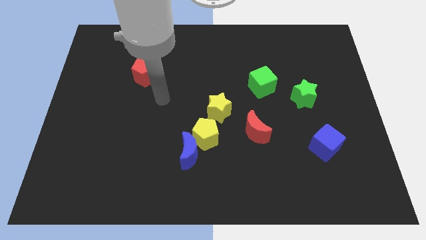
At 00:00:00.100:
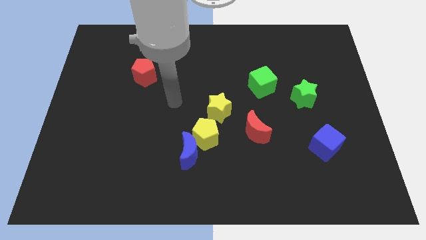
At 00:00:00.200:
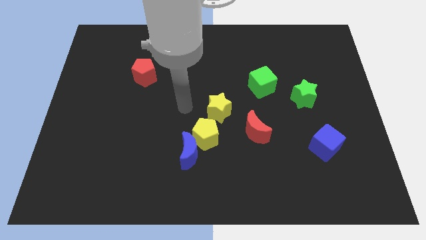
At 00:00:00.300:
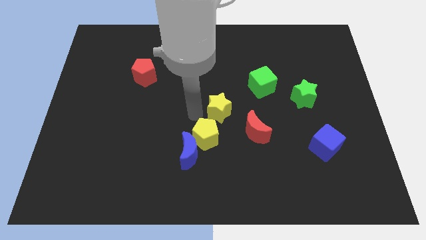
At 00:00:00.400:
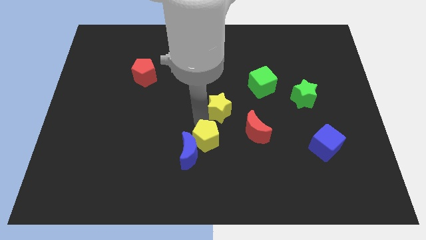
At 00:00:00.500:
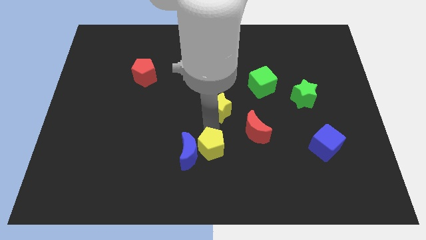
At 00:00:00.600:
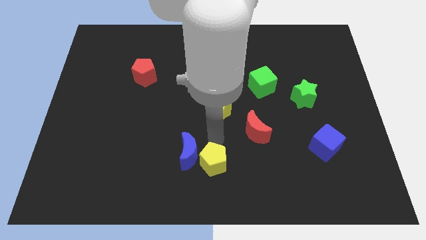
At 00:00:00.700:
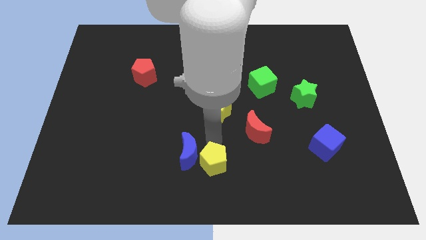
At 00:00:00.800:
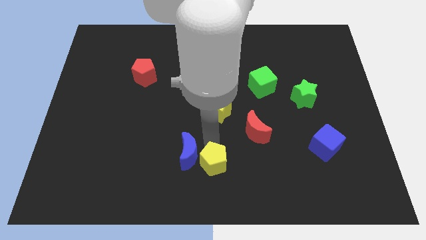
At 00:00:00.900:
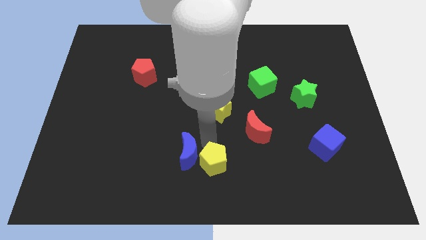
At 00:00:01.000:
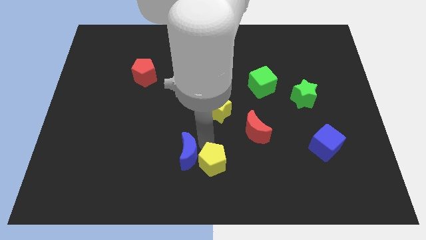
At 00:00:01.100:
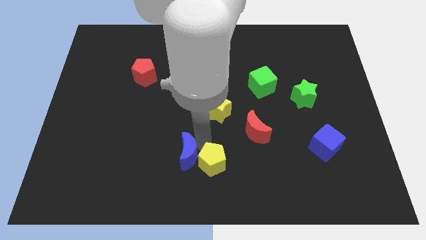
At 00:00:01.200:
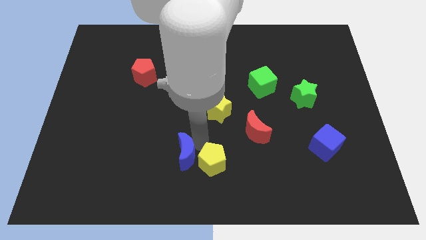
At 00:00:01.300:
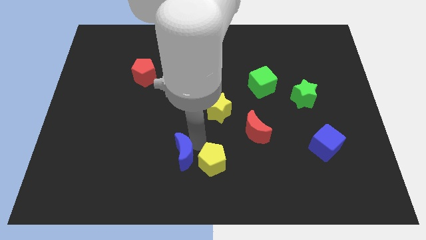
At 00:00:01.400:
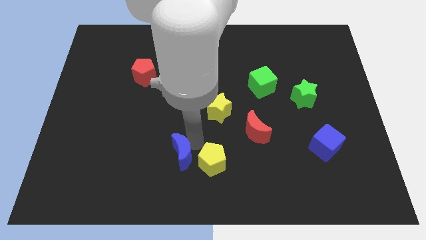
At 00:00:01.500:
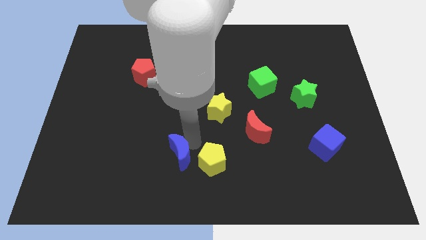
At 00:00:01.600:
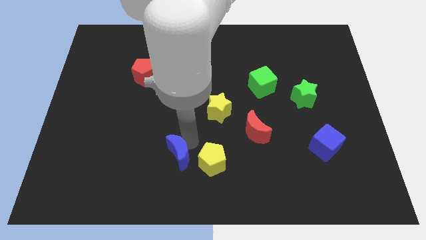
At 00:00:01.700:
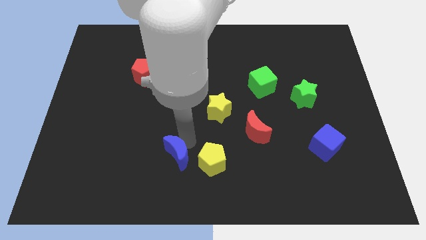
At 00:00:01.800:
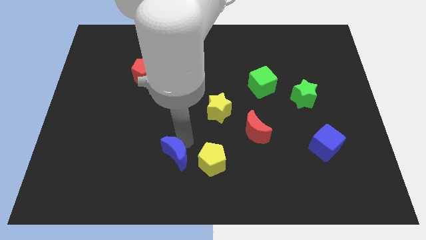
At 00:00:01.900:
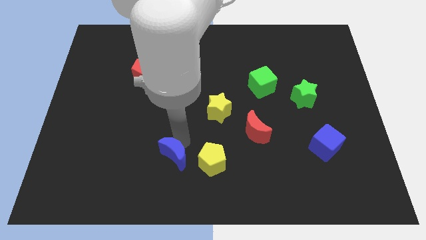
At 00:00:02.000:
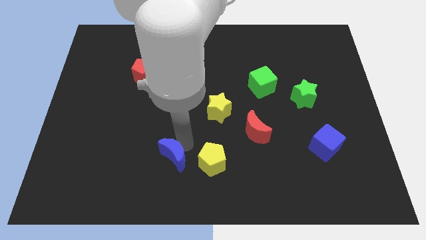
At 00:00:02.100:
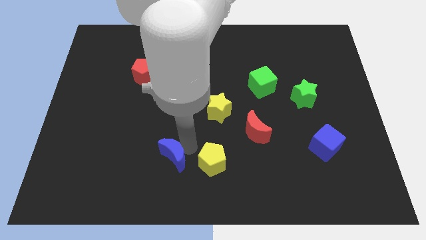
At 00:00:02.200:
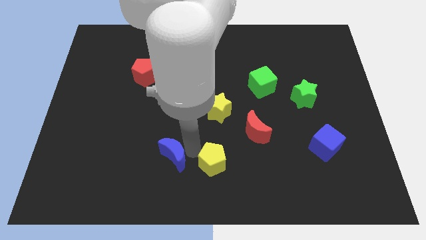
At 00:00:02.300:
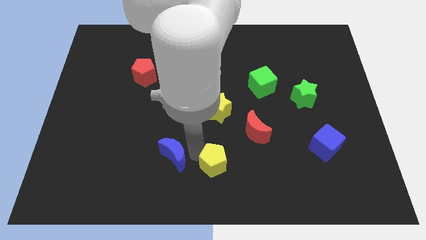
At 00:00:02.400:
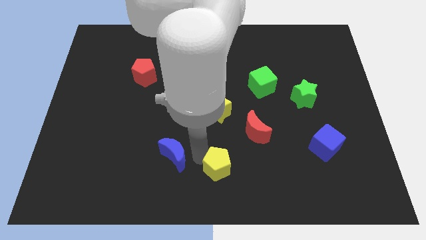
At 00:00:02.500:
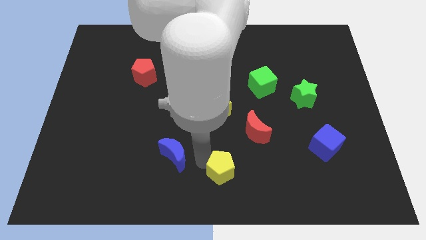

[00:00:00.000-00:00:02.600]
pull the blue moon apart from the yellow pentagon

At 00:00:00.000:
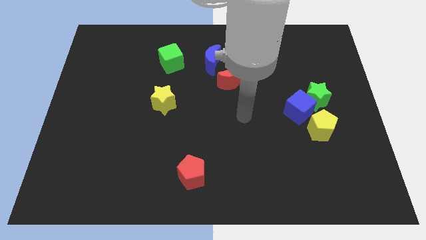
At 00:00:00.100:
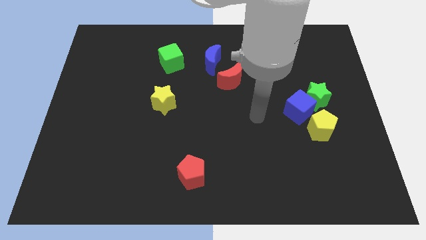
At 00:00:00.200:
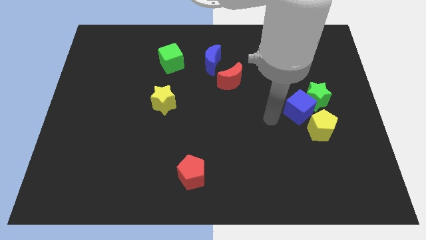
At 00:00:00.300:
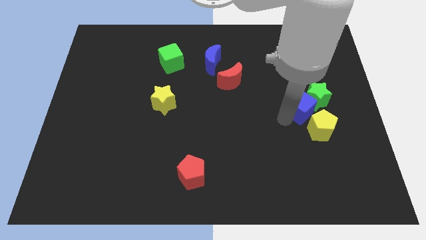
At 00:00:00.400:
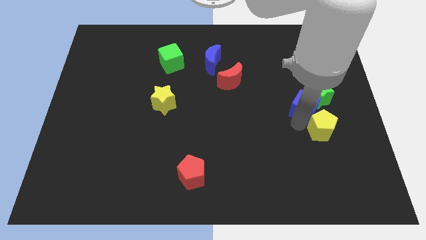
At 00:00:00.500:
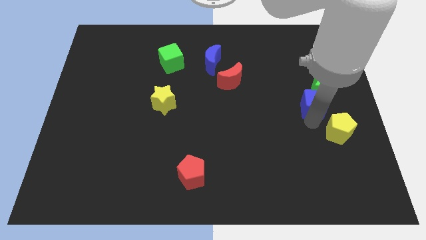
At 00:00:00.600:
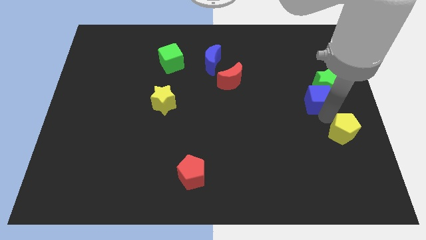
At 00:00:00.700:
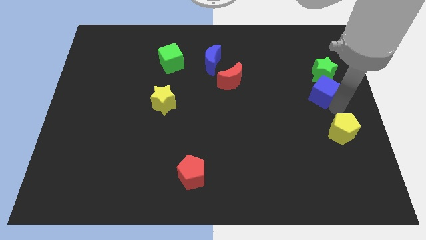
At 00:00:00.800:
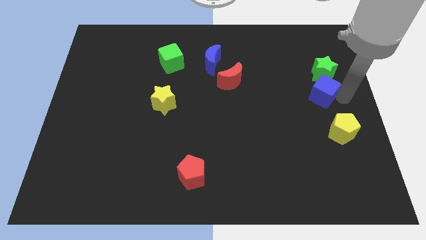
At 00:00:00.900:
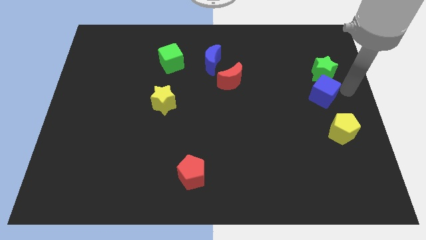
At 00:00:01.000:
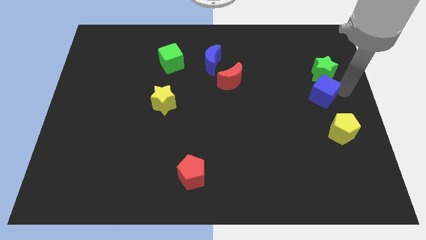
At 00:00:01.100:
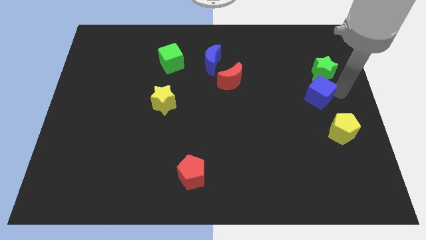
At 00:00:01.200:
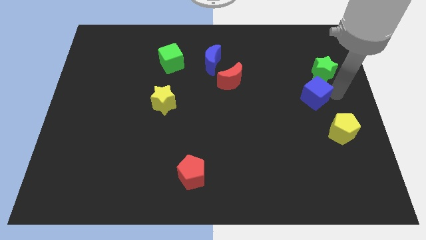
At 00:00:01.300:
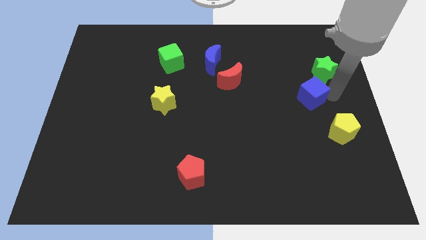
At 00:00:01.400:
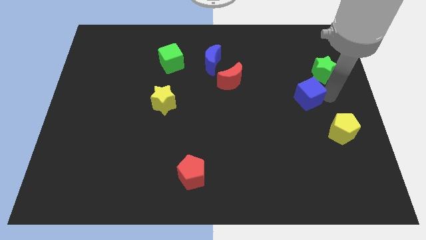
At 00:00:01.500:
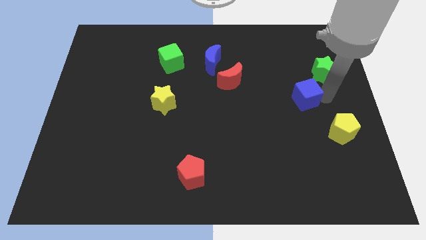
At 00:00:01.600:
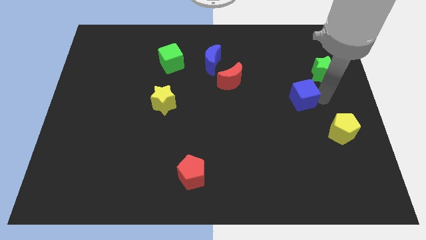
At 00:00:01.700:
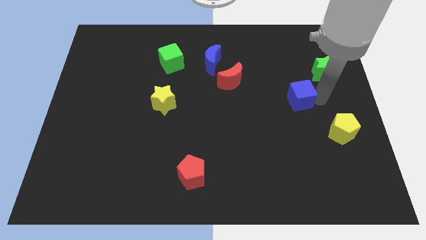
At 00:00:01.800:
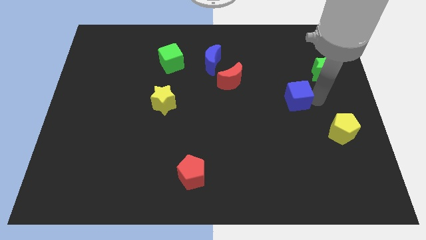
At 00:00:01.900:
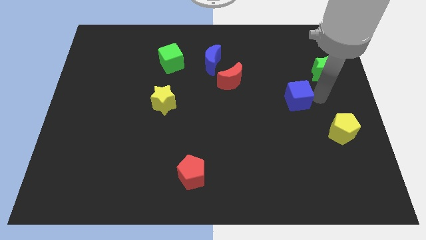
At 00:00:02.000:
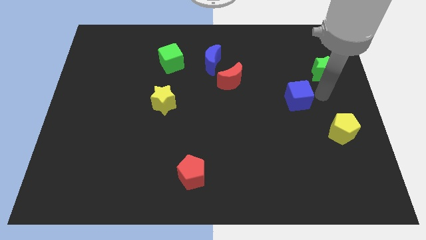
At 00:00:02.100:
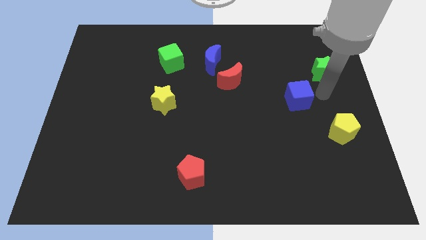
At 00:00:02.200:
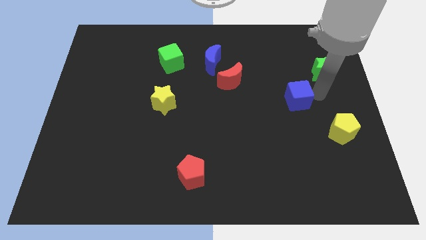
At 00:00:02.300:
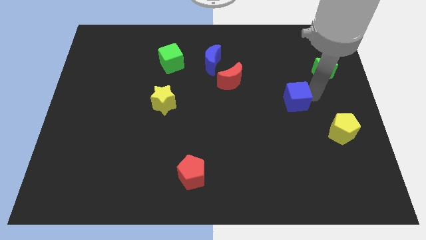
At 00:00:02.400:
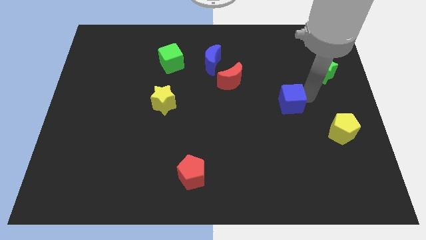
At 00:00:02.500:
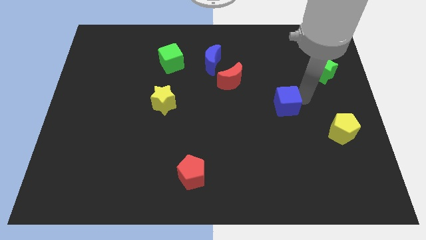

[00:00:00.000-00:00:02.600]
pull the blue cube apart from the green star and yellow pentagon

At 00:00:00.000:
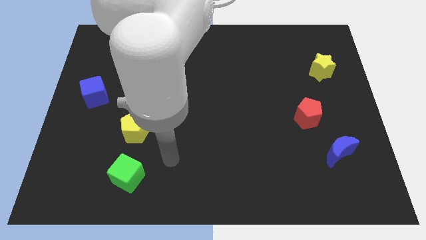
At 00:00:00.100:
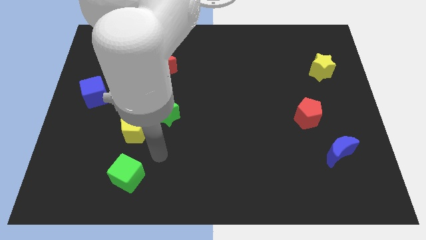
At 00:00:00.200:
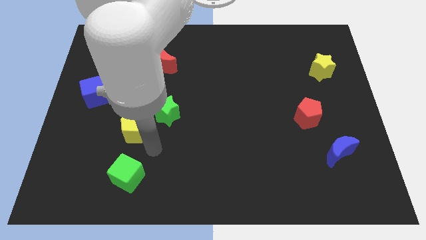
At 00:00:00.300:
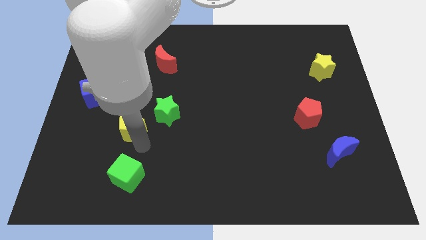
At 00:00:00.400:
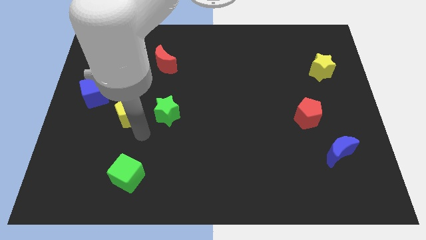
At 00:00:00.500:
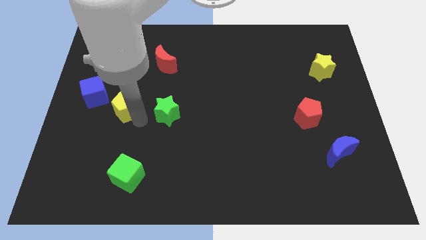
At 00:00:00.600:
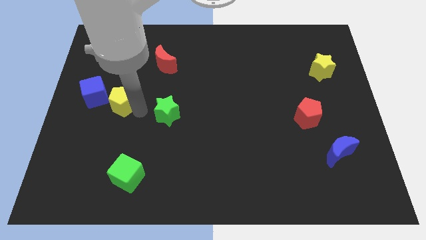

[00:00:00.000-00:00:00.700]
move the green star away from the yellow pentagon

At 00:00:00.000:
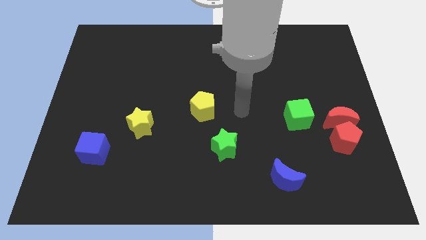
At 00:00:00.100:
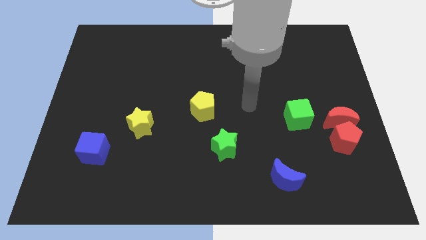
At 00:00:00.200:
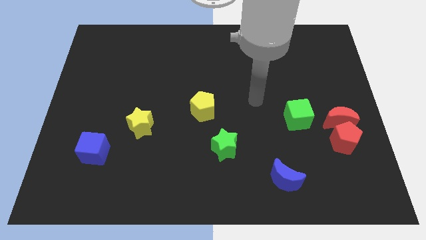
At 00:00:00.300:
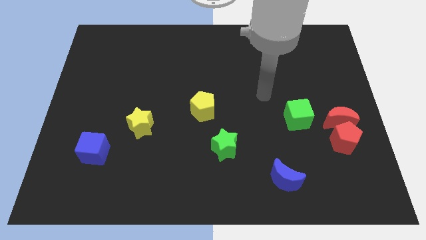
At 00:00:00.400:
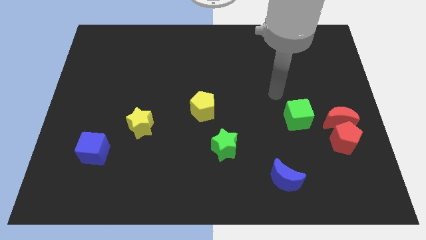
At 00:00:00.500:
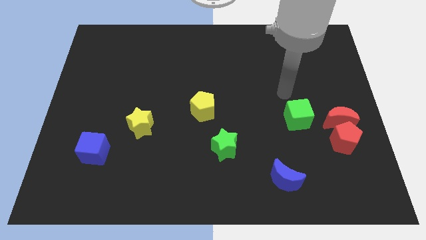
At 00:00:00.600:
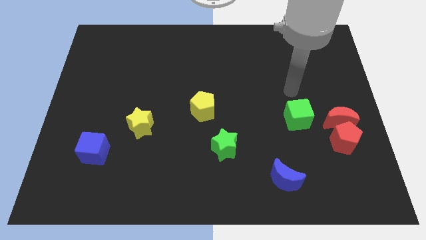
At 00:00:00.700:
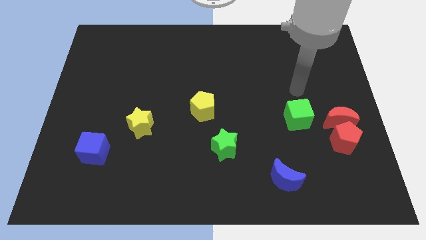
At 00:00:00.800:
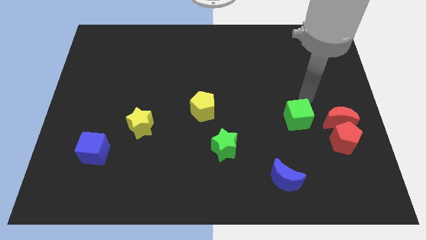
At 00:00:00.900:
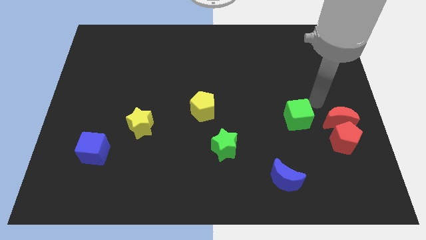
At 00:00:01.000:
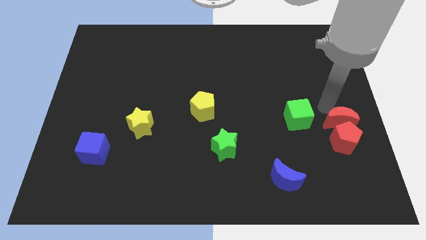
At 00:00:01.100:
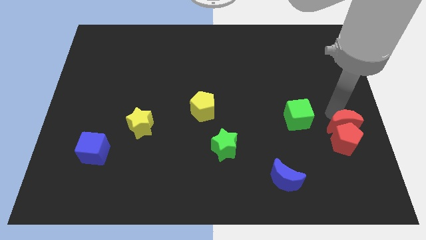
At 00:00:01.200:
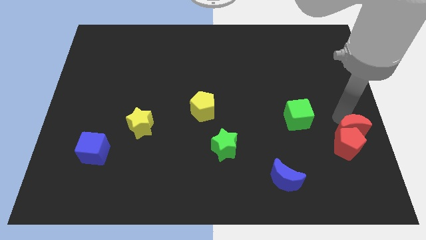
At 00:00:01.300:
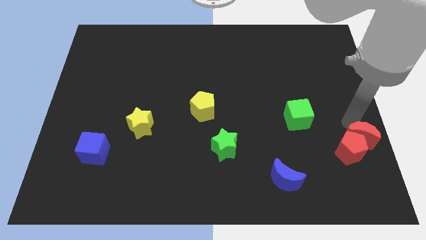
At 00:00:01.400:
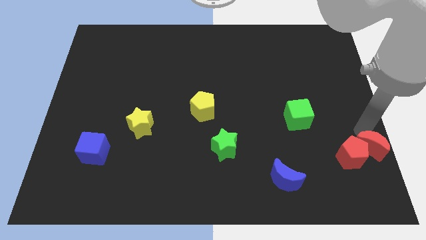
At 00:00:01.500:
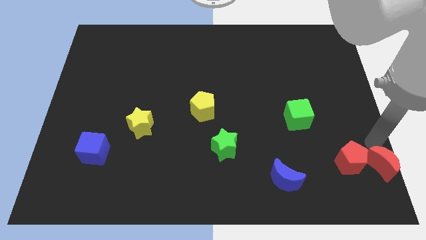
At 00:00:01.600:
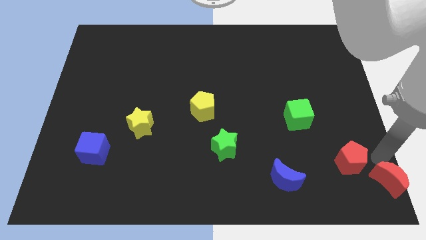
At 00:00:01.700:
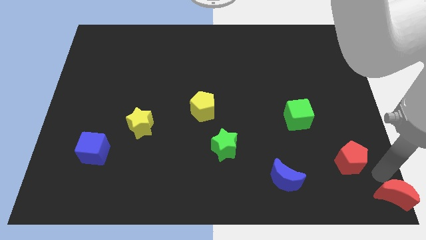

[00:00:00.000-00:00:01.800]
pull the red pentagon apart from the red moon

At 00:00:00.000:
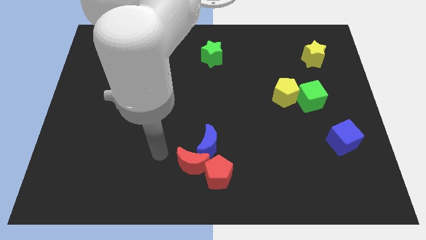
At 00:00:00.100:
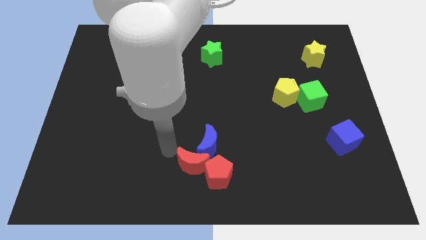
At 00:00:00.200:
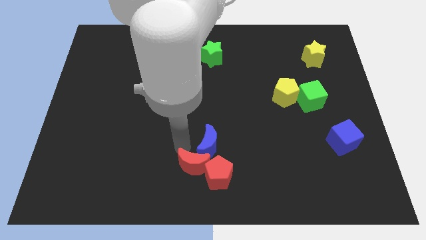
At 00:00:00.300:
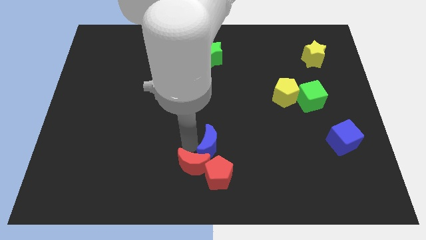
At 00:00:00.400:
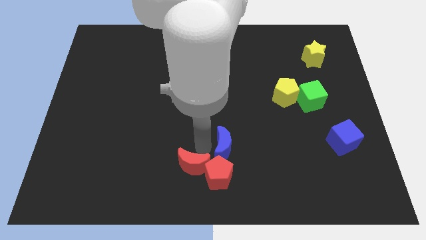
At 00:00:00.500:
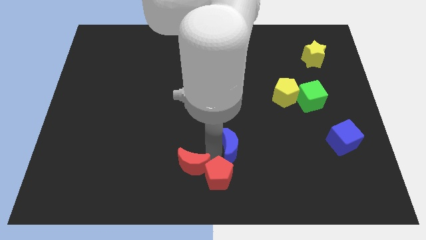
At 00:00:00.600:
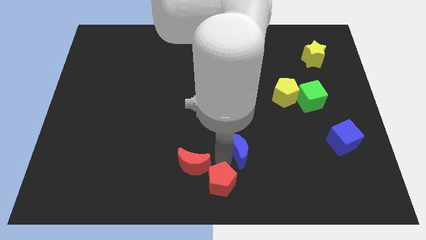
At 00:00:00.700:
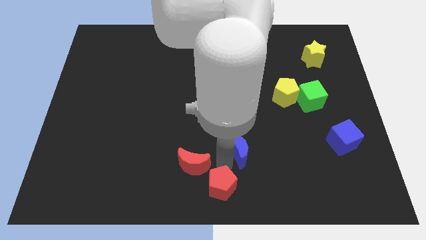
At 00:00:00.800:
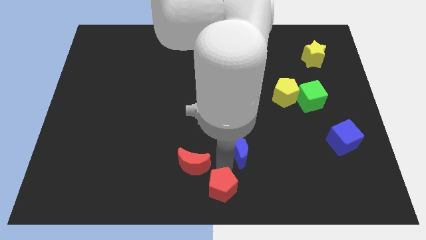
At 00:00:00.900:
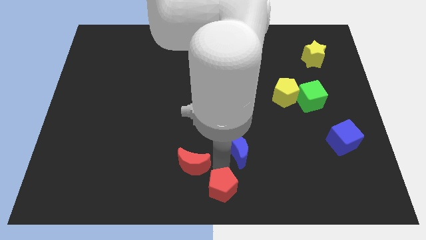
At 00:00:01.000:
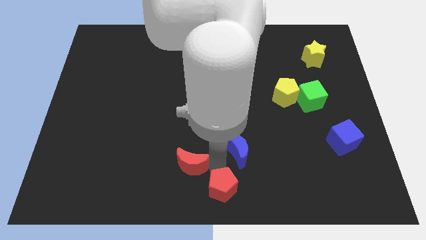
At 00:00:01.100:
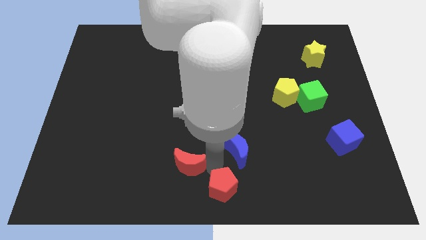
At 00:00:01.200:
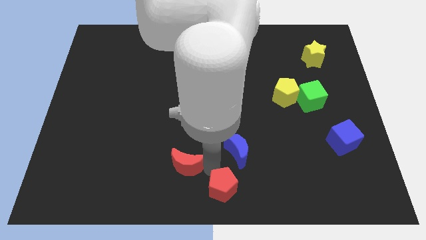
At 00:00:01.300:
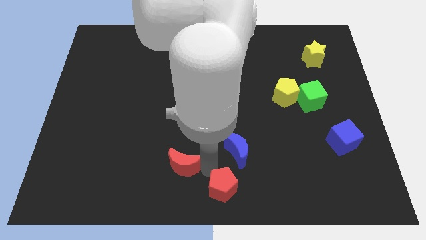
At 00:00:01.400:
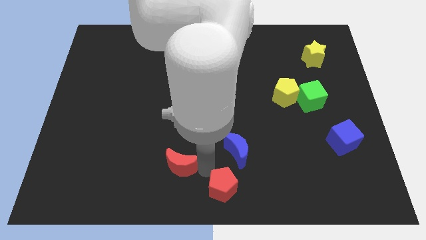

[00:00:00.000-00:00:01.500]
move the red moon away from the blue moon and red pentagon
